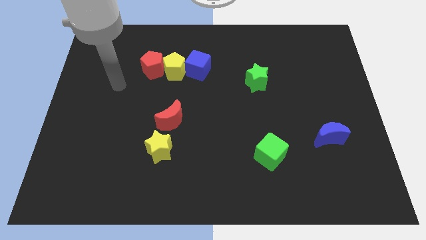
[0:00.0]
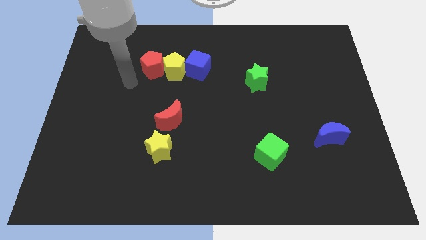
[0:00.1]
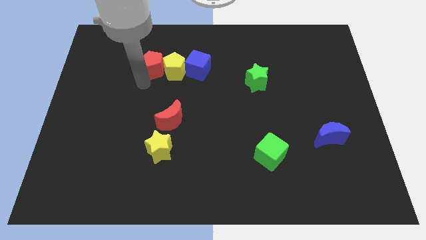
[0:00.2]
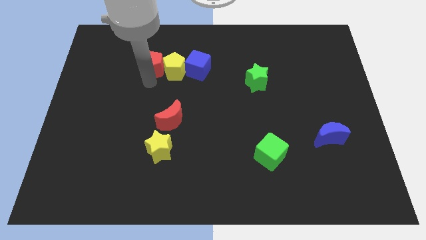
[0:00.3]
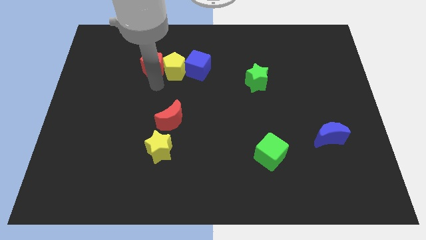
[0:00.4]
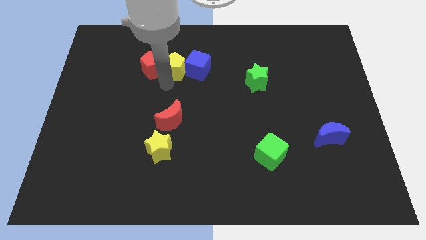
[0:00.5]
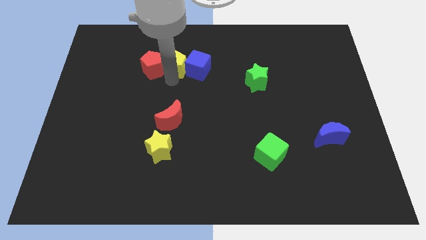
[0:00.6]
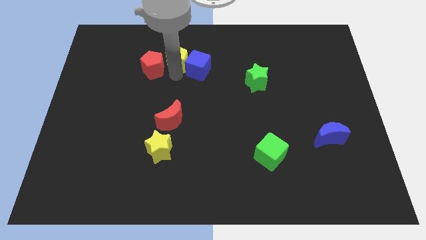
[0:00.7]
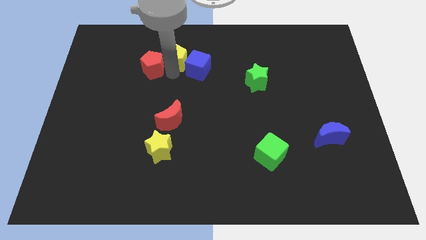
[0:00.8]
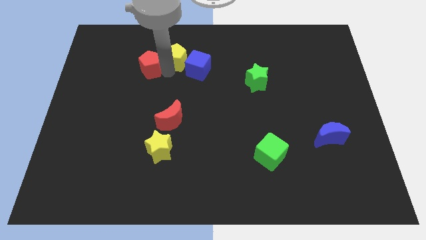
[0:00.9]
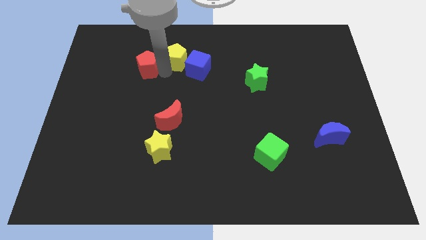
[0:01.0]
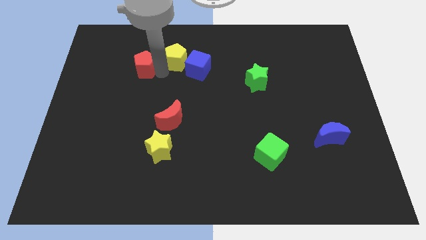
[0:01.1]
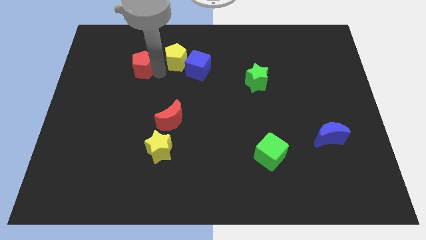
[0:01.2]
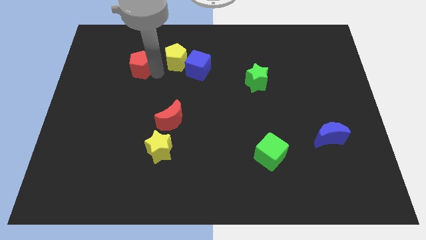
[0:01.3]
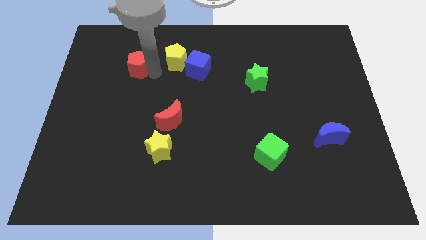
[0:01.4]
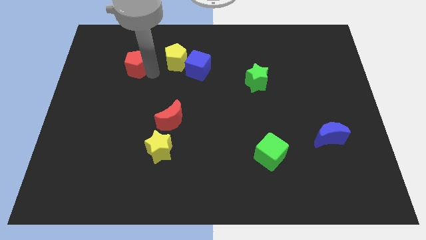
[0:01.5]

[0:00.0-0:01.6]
move the red pentagon away from the yellow pentagon

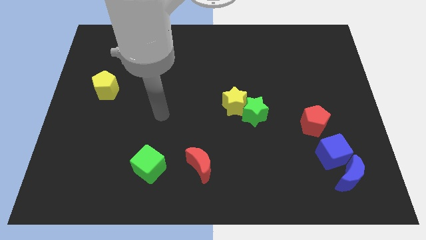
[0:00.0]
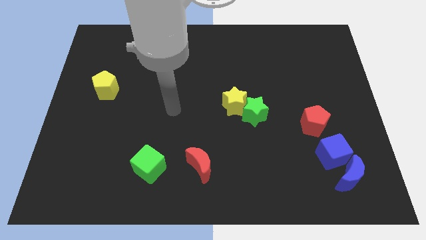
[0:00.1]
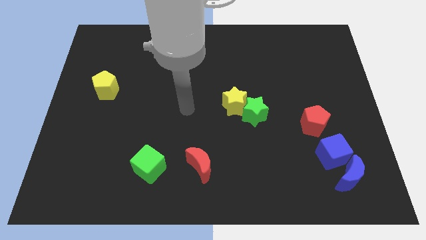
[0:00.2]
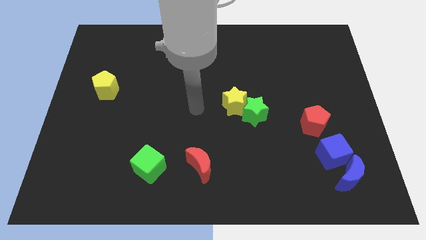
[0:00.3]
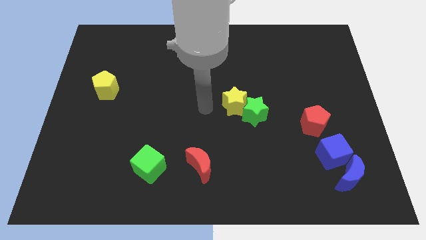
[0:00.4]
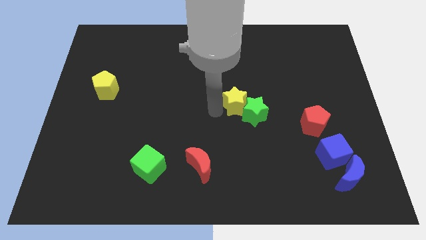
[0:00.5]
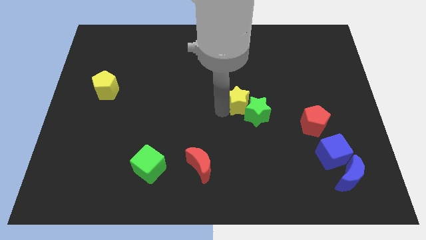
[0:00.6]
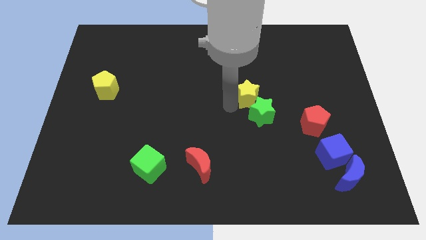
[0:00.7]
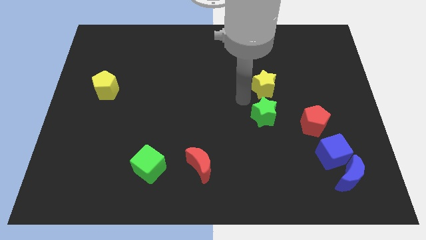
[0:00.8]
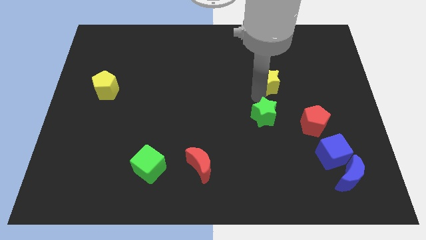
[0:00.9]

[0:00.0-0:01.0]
separate the green star from the yellow star

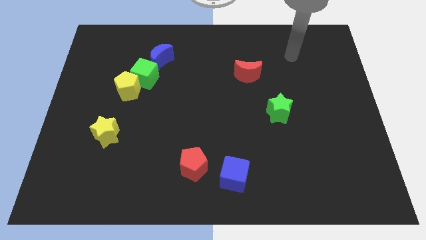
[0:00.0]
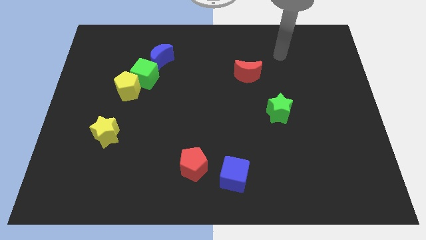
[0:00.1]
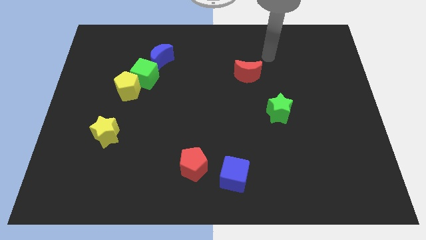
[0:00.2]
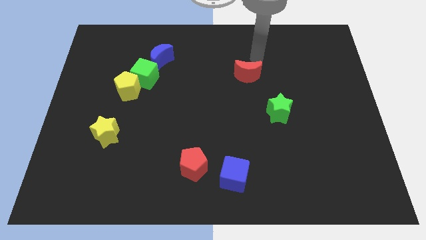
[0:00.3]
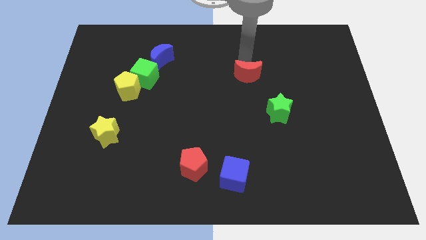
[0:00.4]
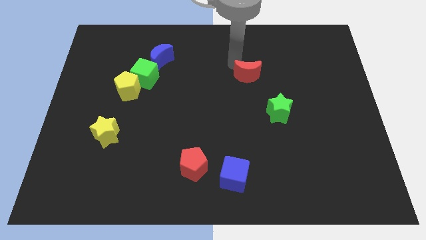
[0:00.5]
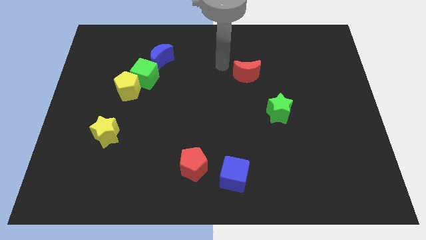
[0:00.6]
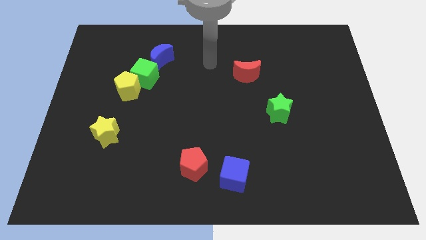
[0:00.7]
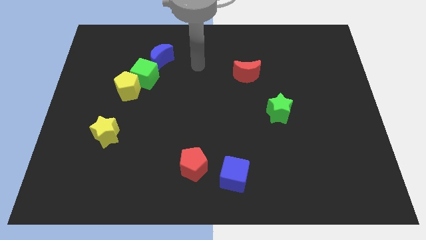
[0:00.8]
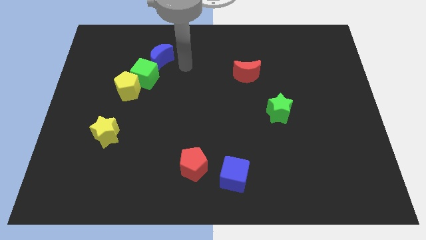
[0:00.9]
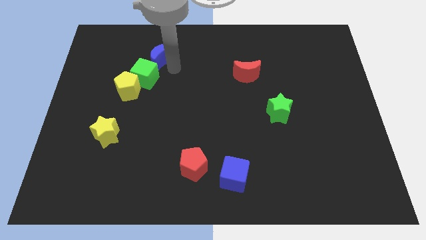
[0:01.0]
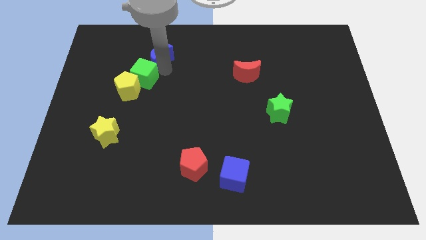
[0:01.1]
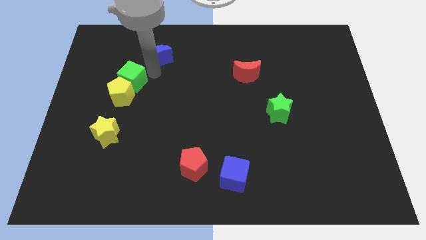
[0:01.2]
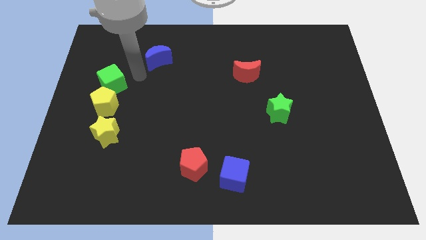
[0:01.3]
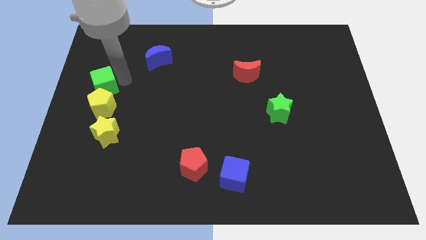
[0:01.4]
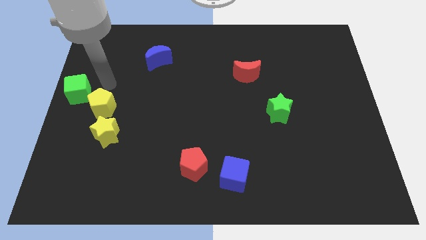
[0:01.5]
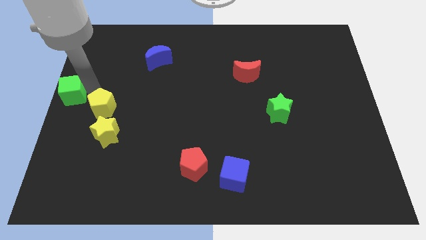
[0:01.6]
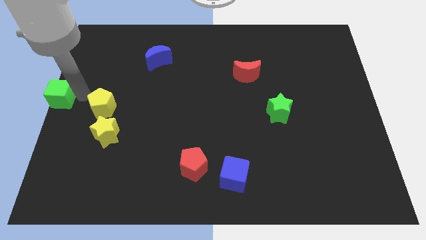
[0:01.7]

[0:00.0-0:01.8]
separate the yellow pentagon from the green cube

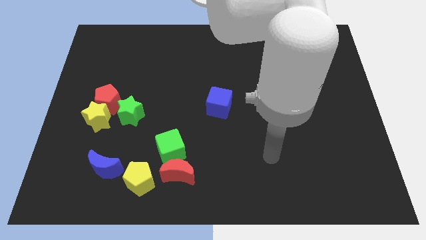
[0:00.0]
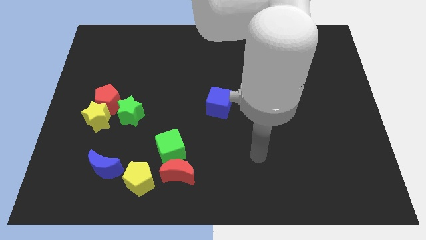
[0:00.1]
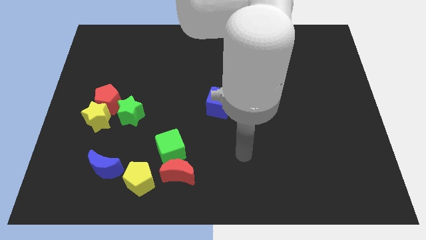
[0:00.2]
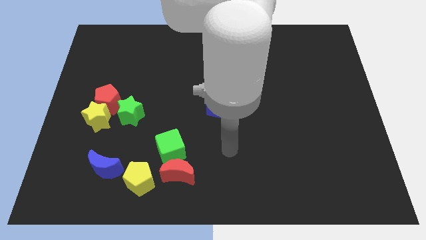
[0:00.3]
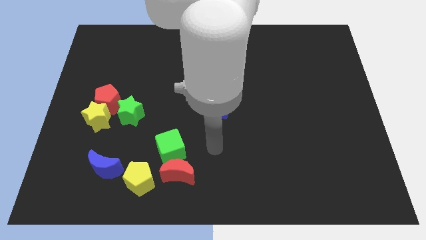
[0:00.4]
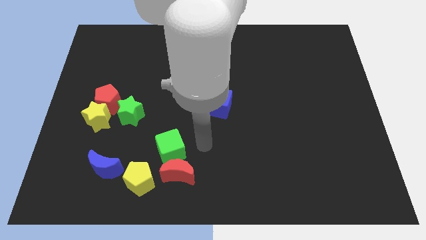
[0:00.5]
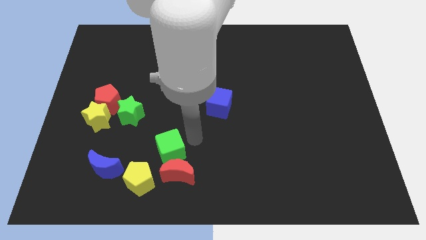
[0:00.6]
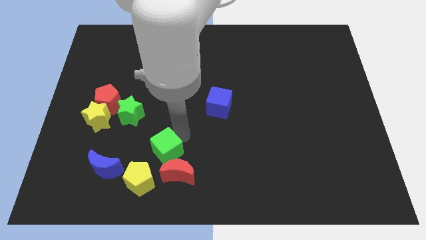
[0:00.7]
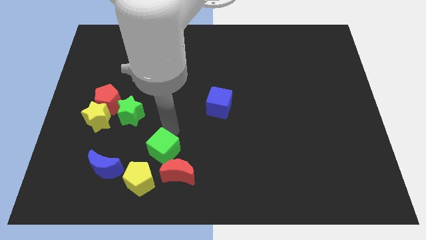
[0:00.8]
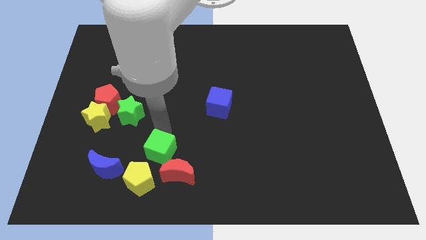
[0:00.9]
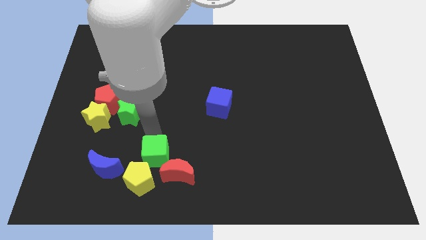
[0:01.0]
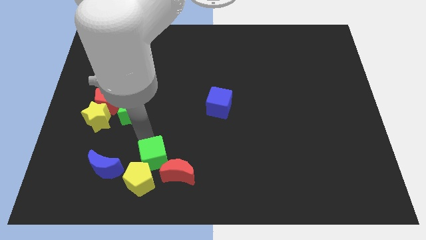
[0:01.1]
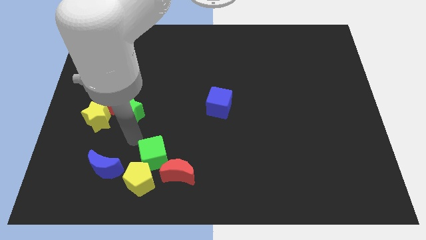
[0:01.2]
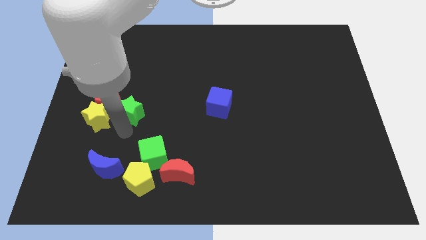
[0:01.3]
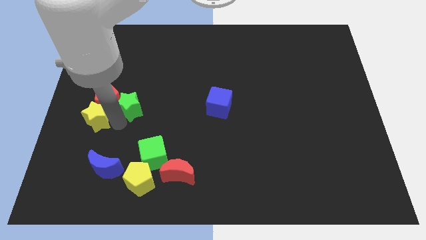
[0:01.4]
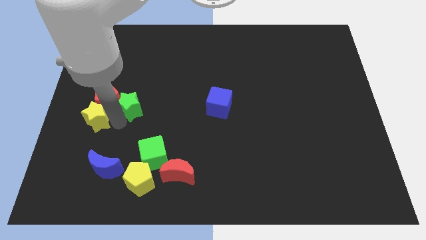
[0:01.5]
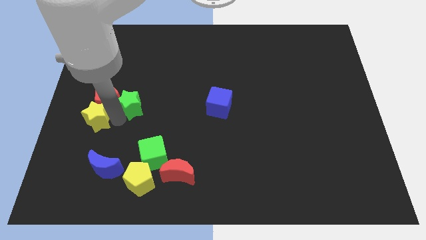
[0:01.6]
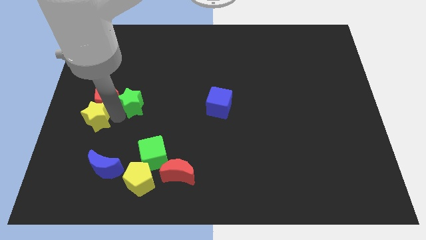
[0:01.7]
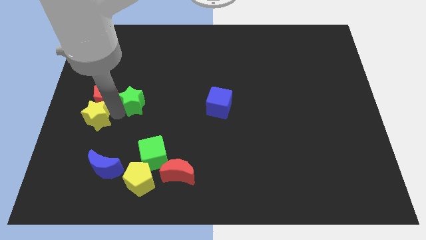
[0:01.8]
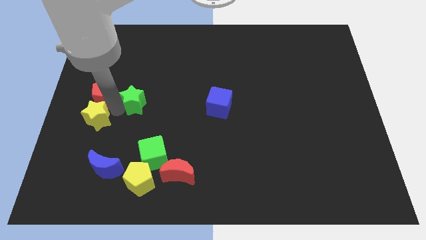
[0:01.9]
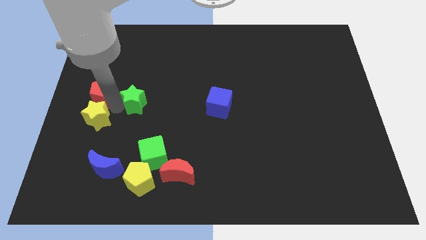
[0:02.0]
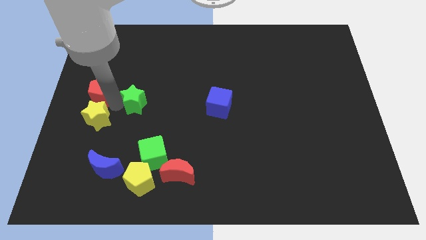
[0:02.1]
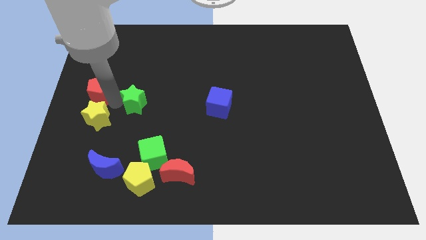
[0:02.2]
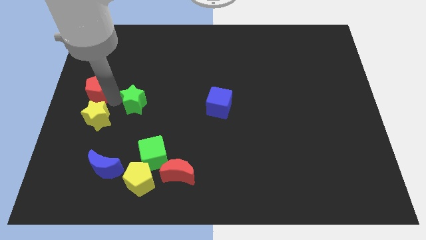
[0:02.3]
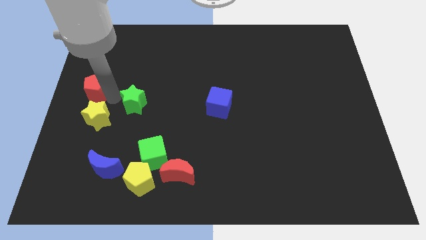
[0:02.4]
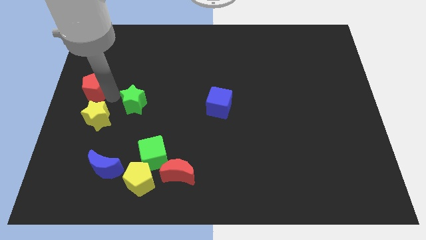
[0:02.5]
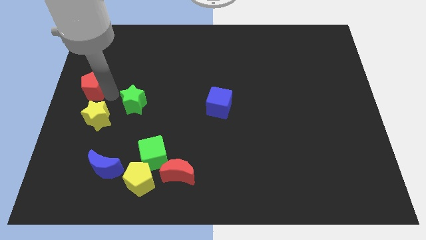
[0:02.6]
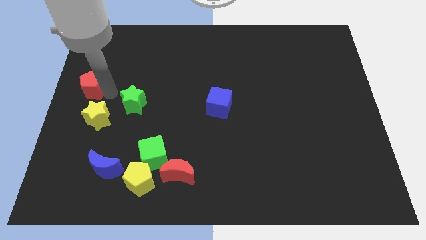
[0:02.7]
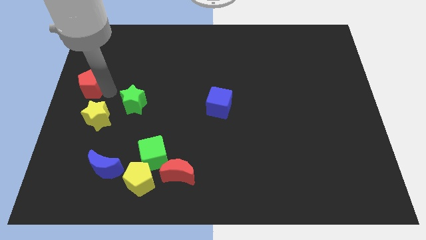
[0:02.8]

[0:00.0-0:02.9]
move the red pentagon away from the yellow star and green star

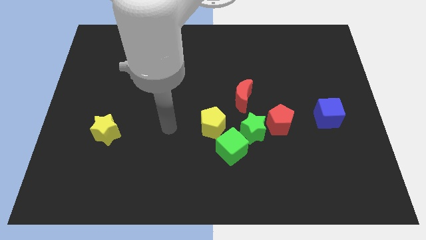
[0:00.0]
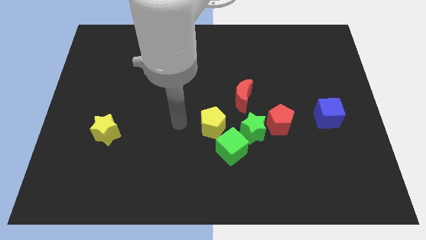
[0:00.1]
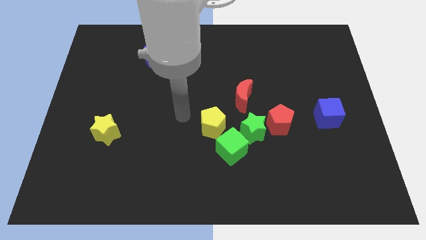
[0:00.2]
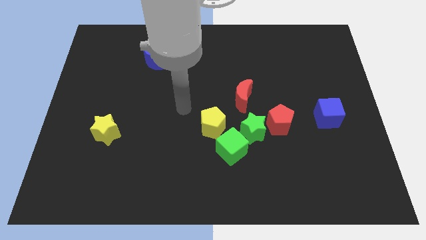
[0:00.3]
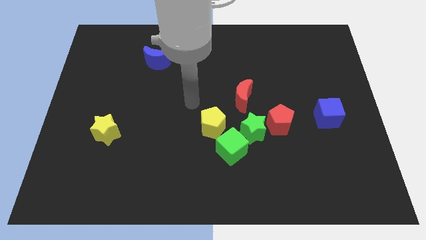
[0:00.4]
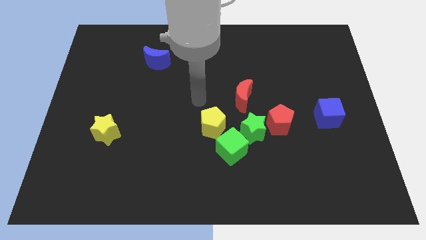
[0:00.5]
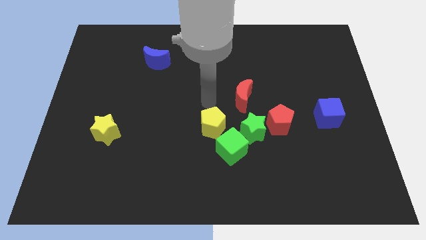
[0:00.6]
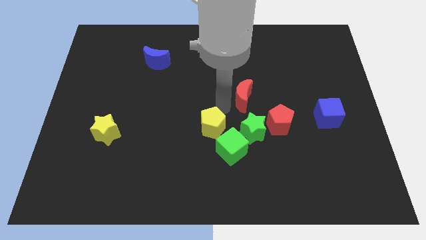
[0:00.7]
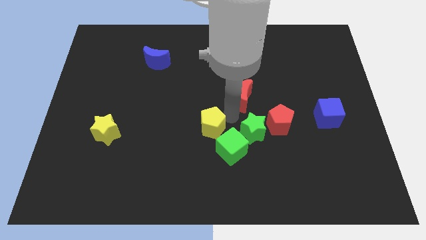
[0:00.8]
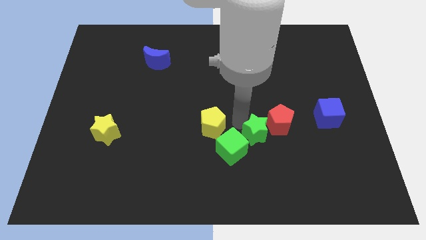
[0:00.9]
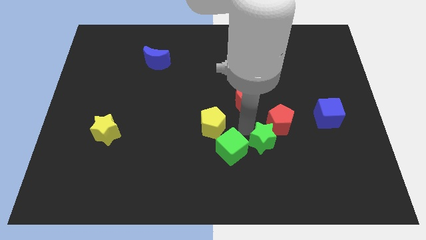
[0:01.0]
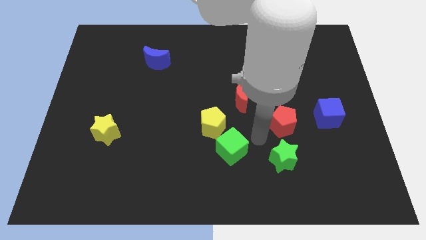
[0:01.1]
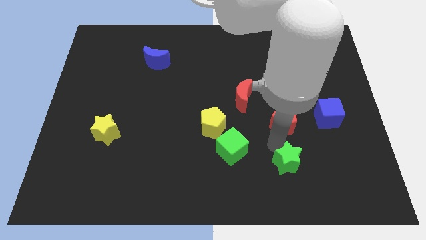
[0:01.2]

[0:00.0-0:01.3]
move the red pentagon away from the green star

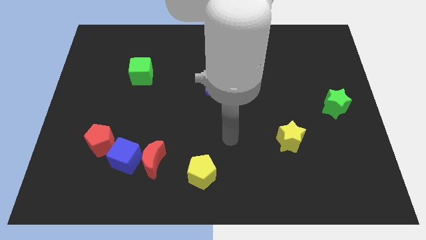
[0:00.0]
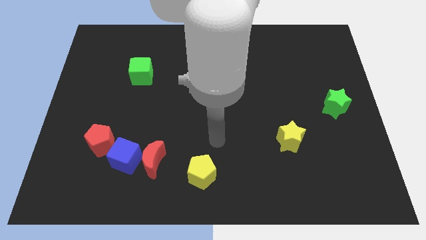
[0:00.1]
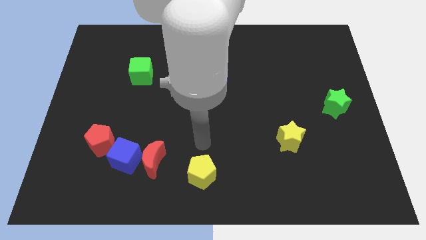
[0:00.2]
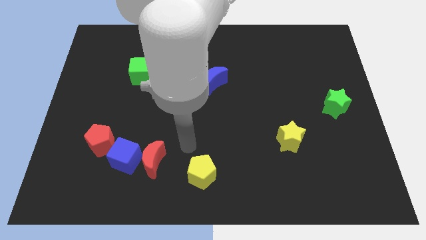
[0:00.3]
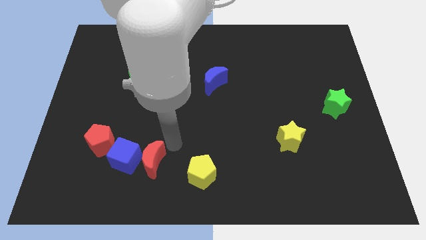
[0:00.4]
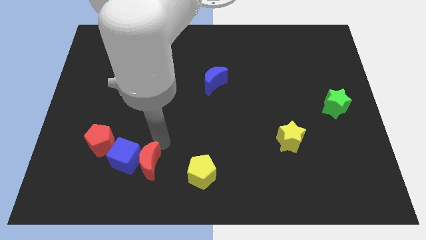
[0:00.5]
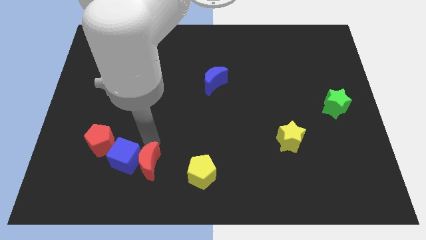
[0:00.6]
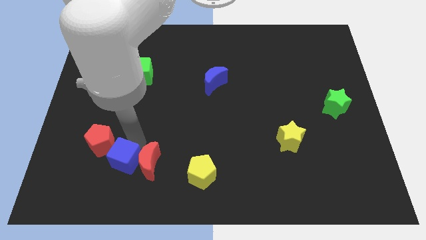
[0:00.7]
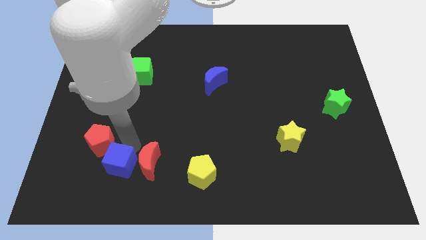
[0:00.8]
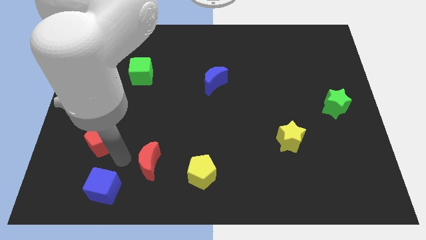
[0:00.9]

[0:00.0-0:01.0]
move the red moon away from the blue cube
